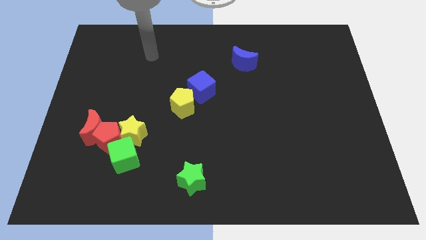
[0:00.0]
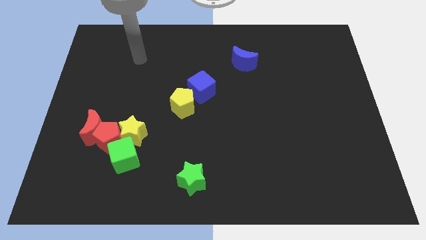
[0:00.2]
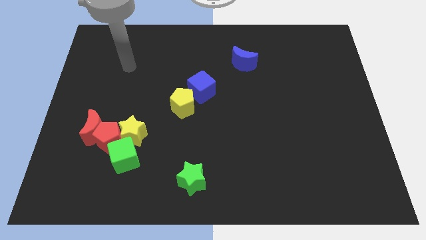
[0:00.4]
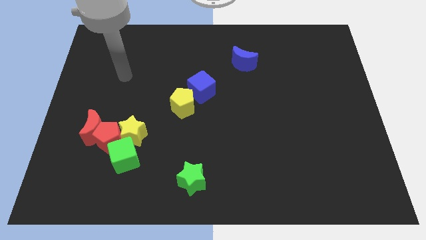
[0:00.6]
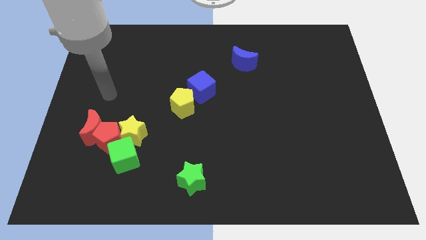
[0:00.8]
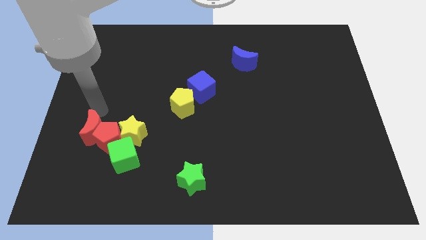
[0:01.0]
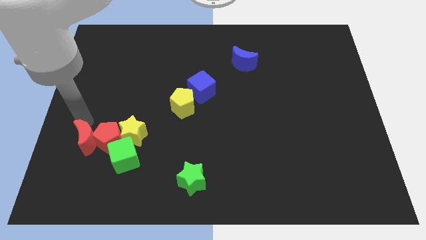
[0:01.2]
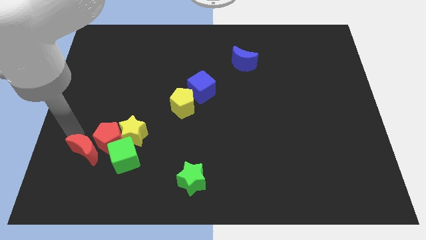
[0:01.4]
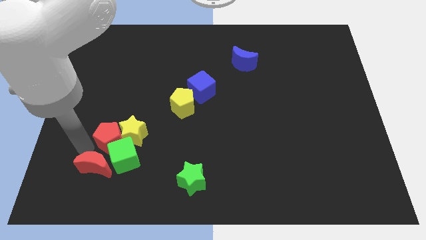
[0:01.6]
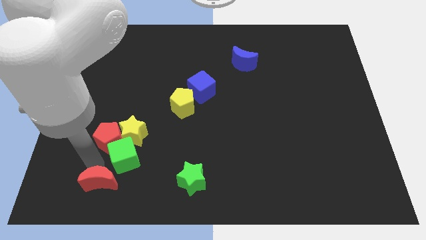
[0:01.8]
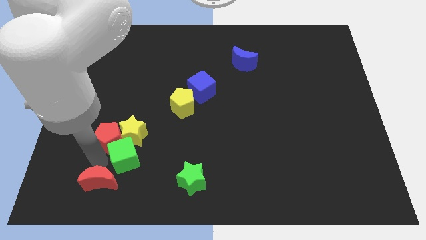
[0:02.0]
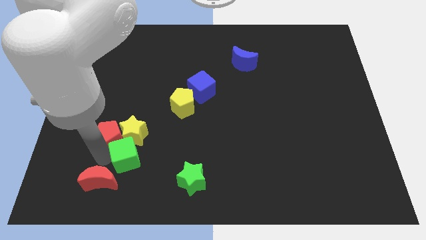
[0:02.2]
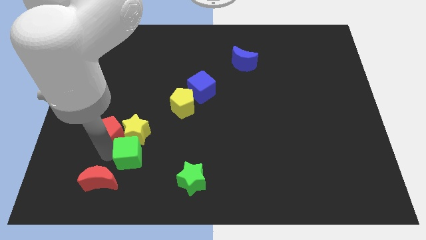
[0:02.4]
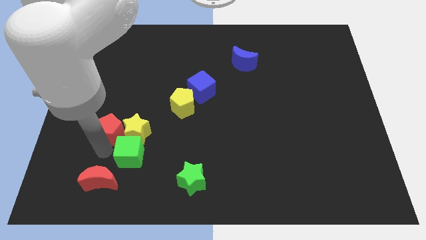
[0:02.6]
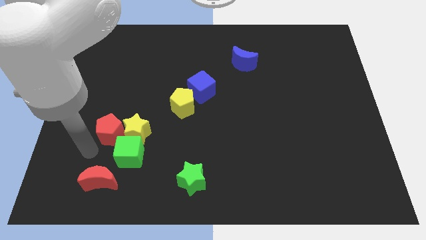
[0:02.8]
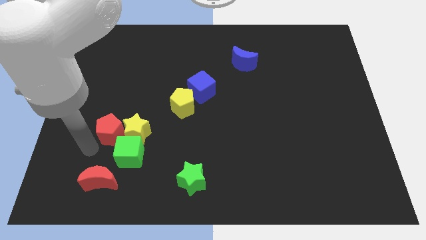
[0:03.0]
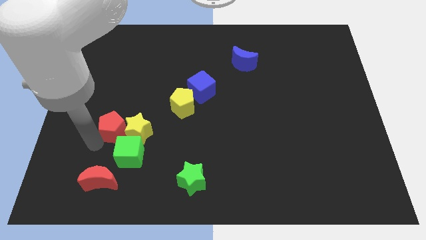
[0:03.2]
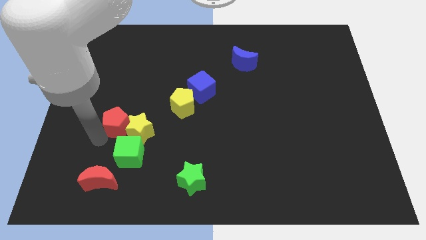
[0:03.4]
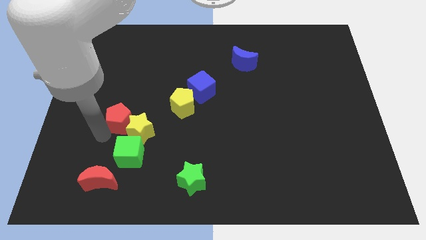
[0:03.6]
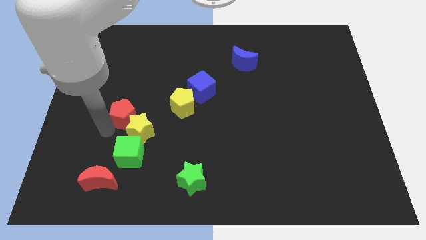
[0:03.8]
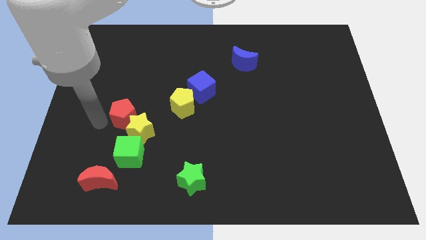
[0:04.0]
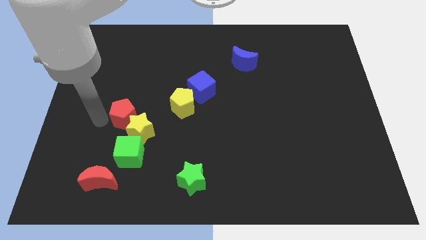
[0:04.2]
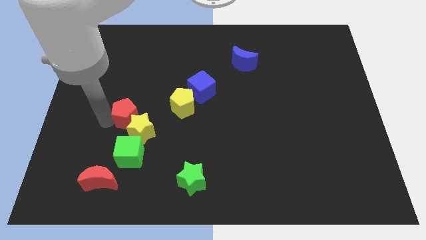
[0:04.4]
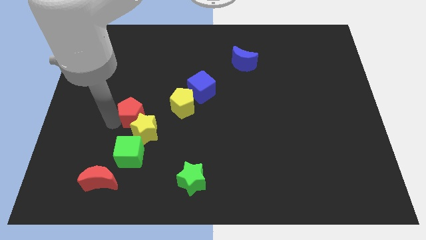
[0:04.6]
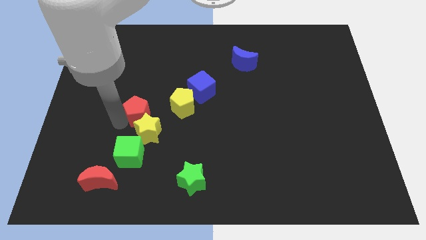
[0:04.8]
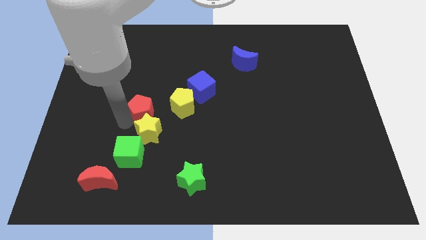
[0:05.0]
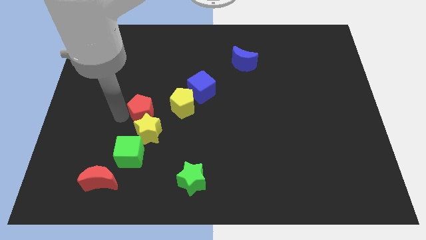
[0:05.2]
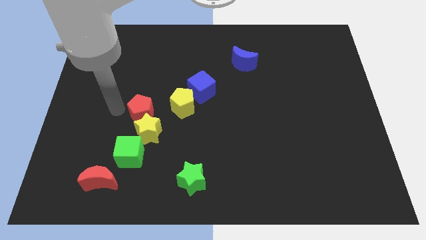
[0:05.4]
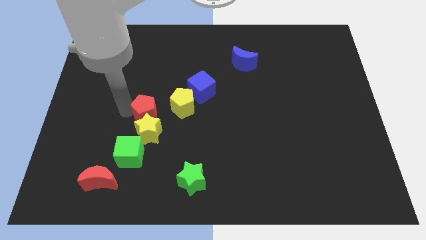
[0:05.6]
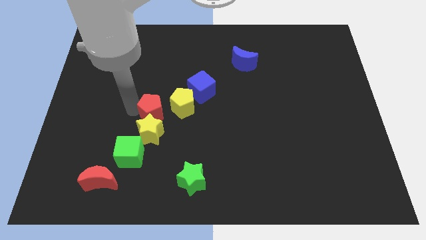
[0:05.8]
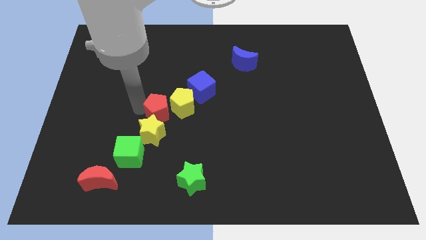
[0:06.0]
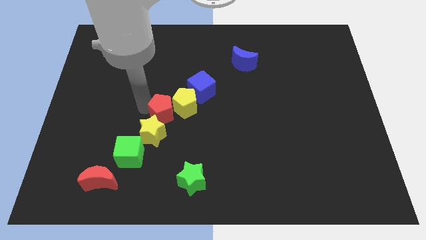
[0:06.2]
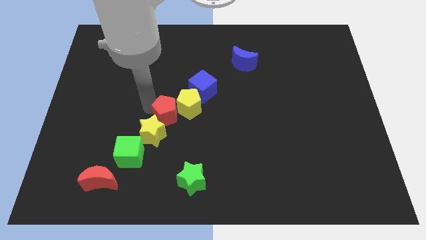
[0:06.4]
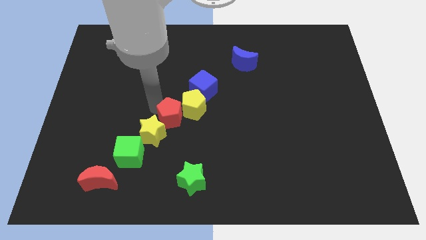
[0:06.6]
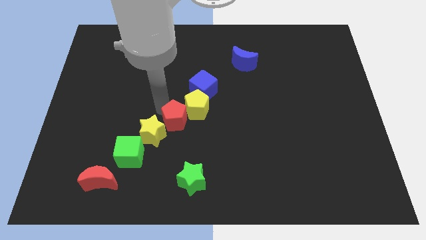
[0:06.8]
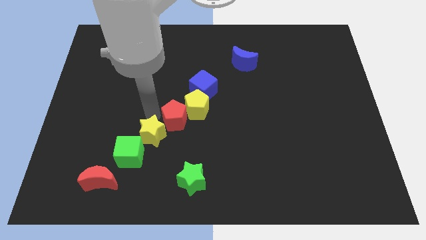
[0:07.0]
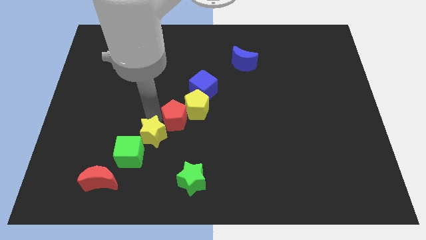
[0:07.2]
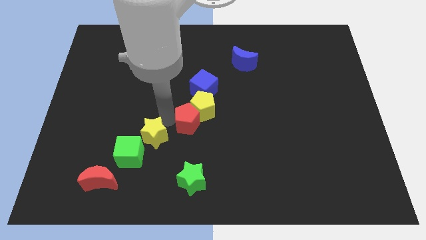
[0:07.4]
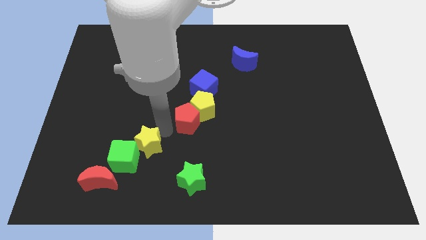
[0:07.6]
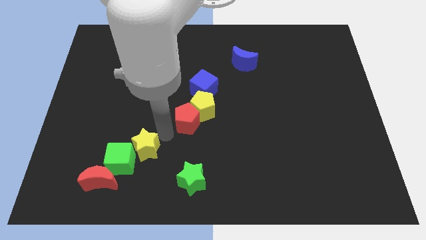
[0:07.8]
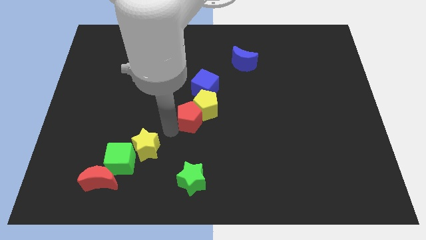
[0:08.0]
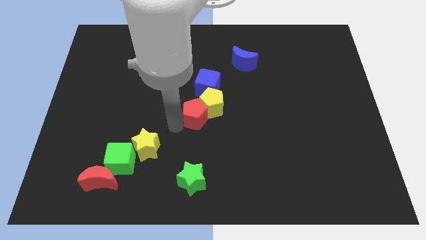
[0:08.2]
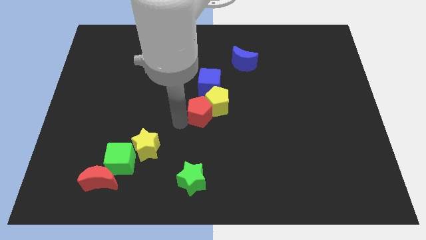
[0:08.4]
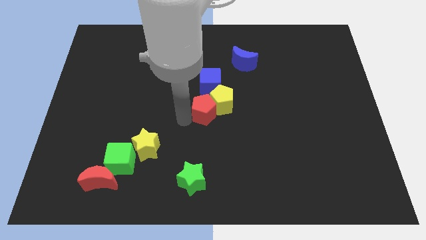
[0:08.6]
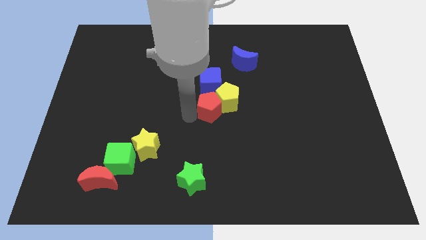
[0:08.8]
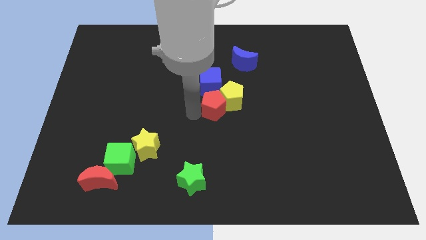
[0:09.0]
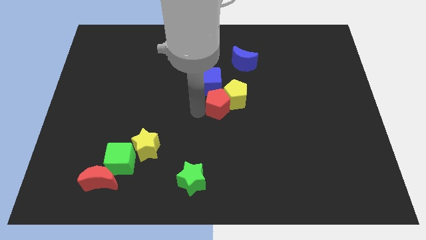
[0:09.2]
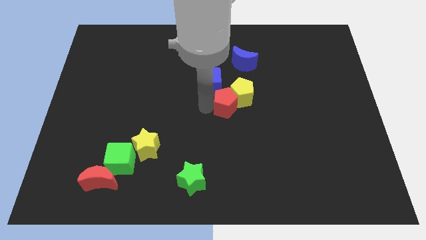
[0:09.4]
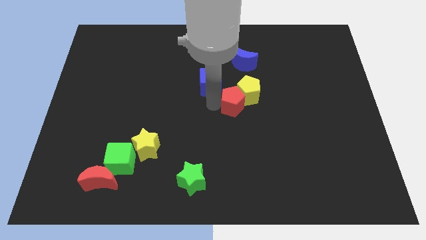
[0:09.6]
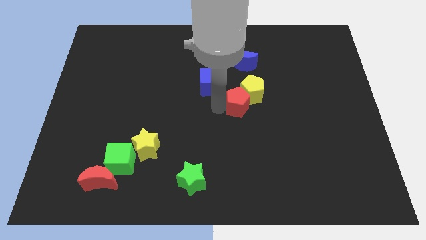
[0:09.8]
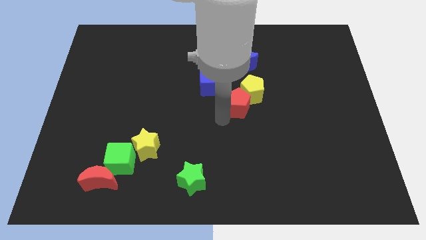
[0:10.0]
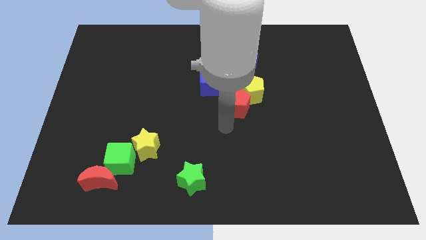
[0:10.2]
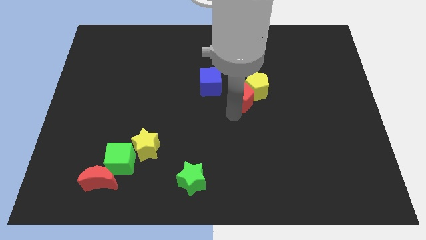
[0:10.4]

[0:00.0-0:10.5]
push the red pentagon right of the blue cube
